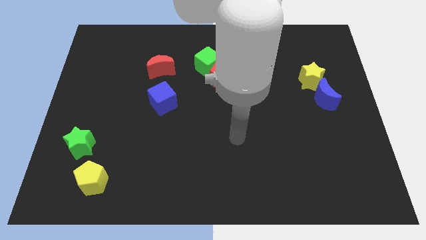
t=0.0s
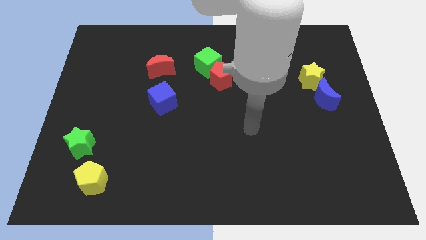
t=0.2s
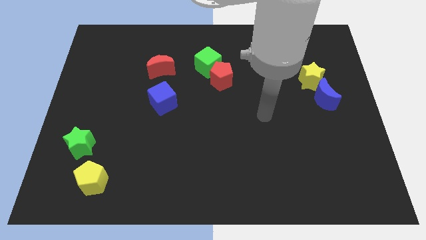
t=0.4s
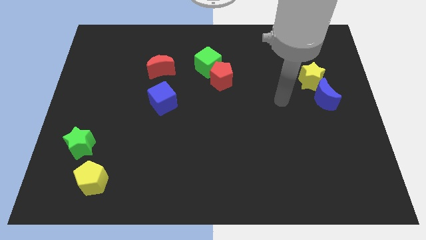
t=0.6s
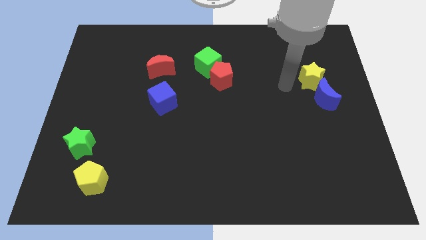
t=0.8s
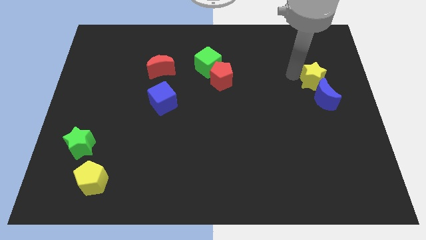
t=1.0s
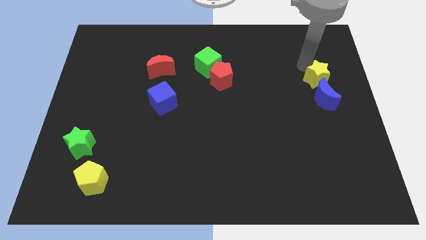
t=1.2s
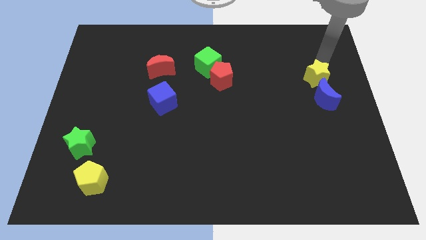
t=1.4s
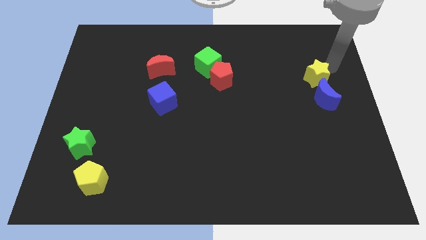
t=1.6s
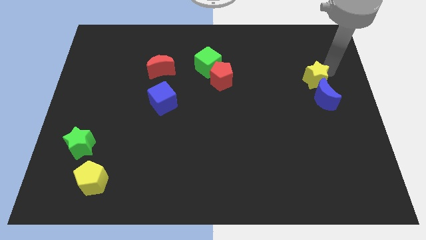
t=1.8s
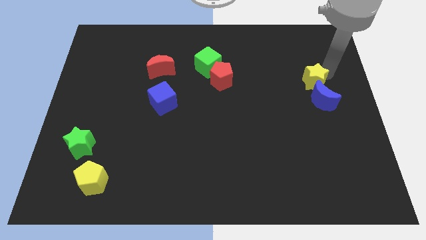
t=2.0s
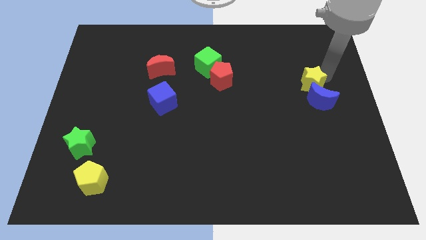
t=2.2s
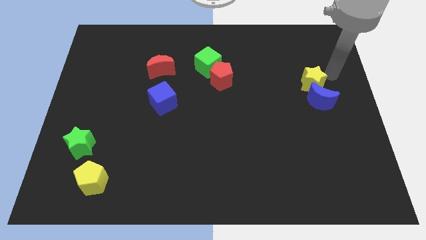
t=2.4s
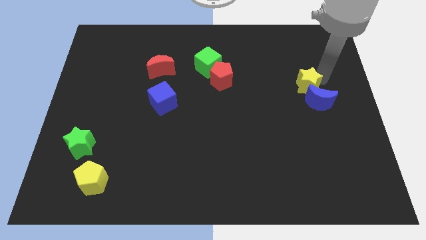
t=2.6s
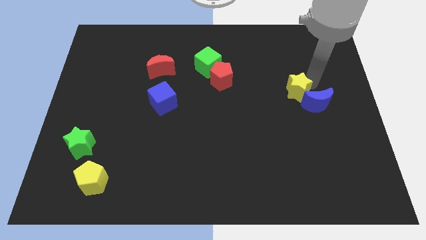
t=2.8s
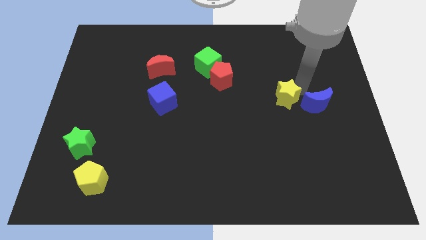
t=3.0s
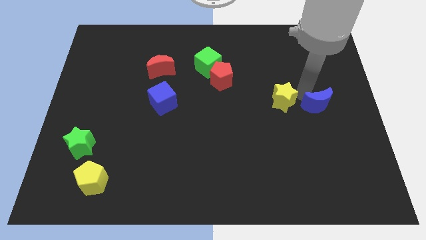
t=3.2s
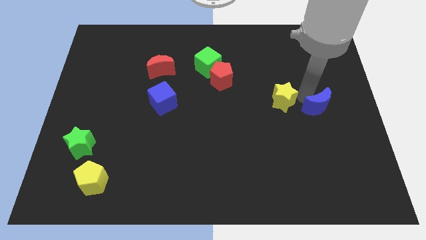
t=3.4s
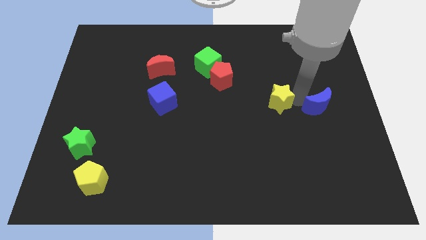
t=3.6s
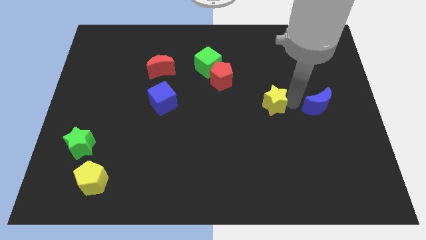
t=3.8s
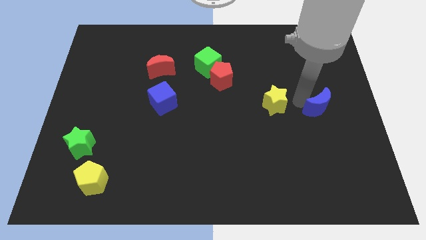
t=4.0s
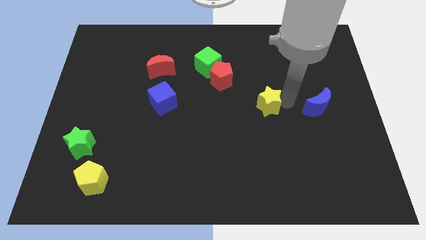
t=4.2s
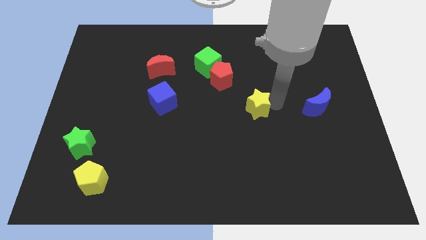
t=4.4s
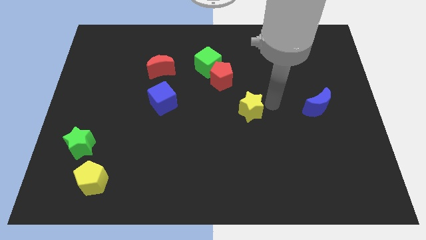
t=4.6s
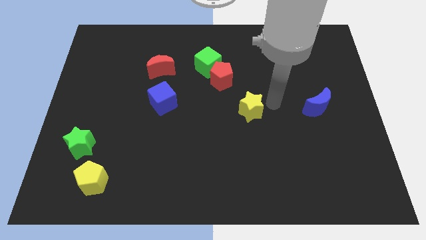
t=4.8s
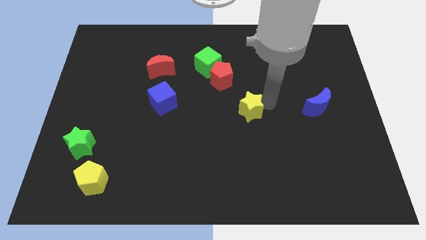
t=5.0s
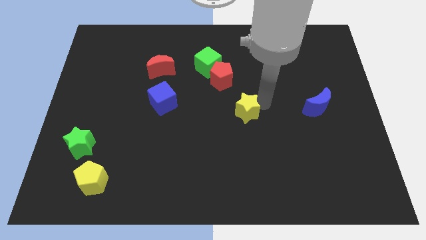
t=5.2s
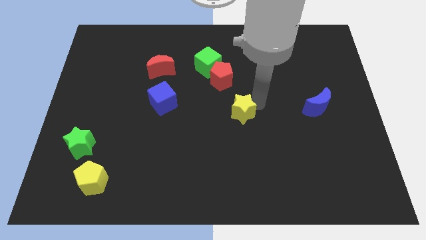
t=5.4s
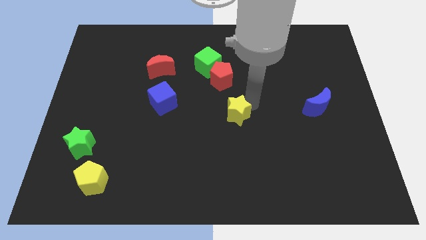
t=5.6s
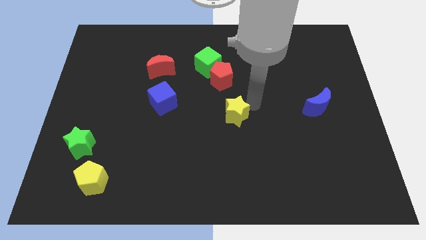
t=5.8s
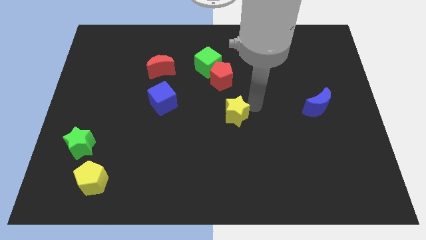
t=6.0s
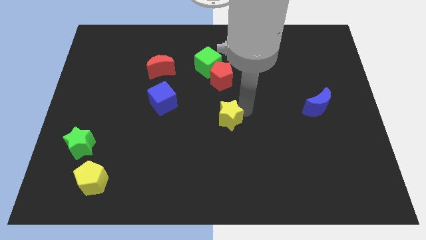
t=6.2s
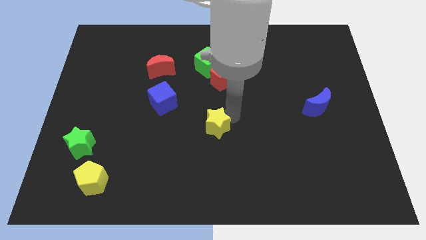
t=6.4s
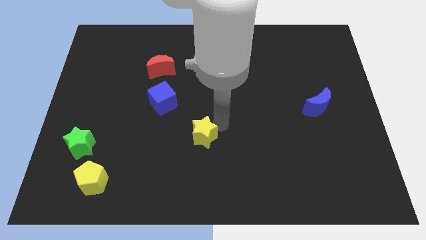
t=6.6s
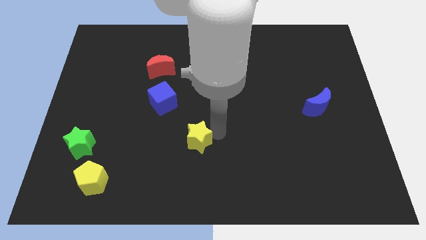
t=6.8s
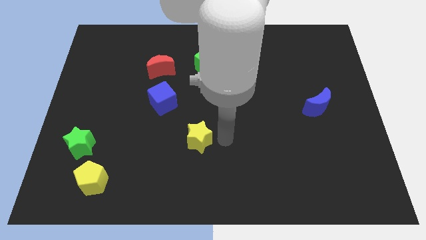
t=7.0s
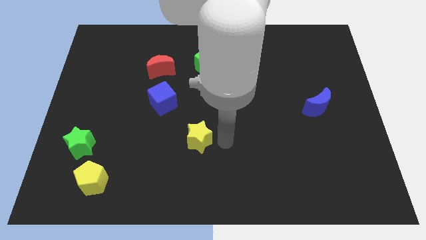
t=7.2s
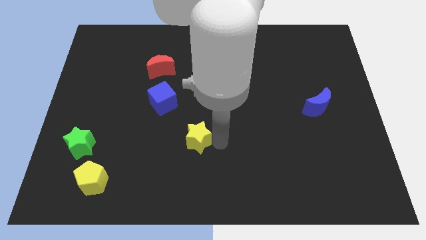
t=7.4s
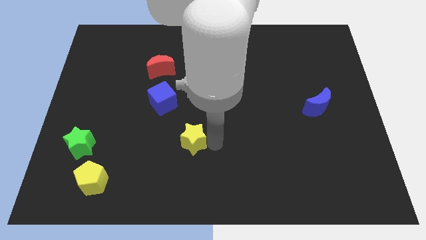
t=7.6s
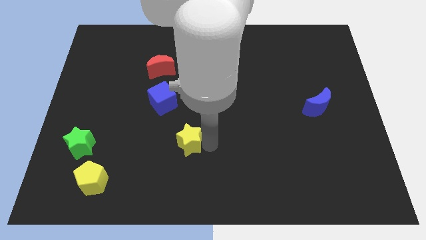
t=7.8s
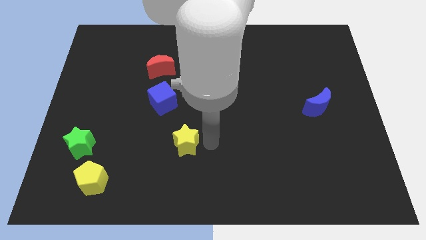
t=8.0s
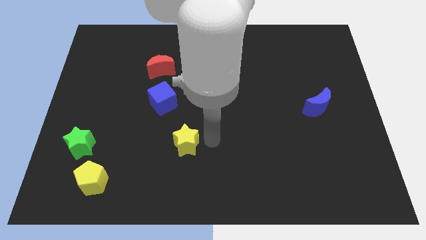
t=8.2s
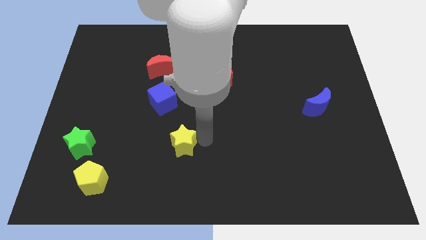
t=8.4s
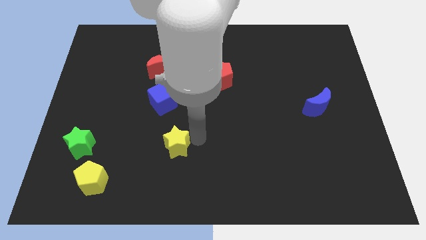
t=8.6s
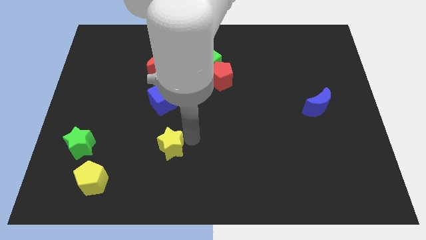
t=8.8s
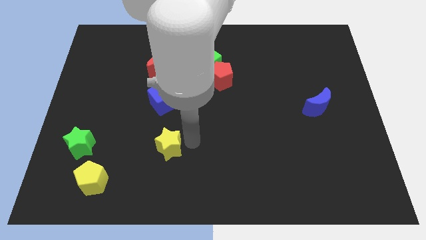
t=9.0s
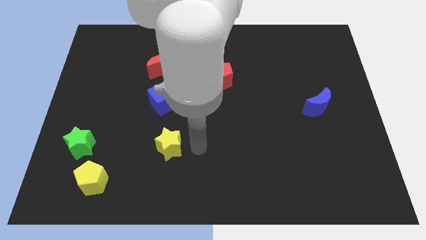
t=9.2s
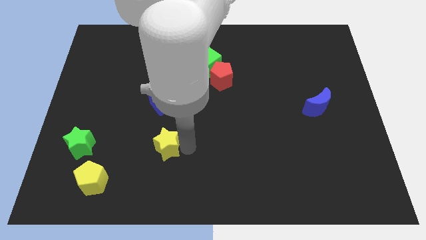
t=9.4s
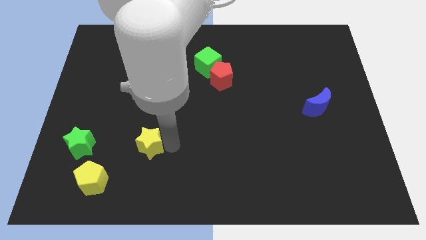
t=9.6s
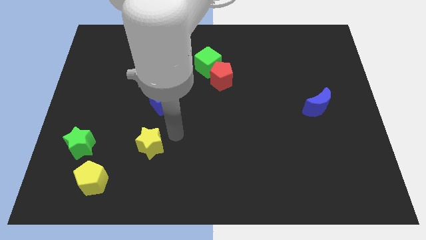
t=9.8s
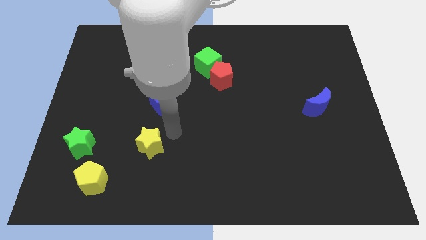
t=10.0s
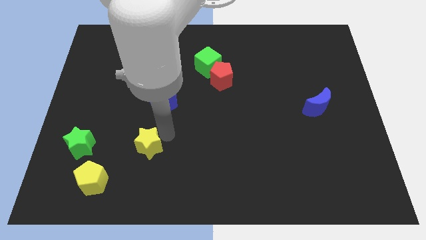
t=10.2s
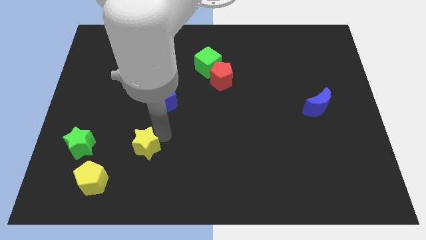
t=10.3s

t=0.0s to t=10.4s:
put the yellow star to the top right side of the yellow pentagon

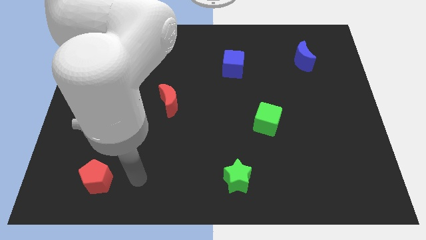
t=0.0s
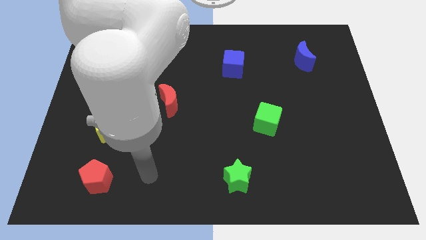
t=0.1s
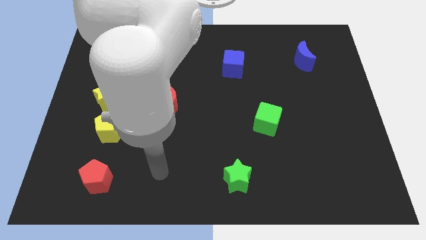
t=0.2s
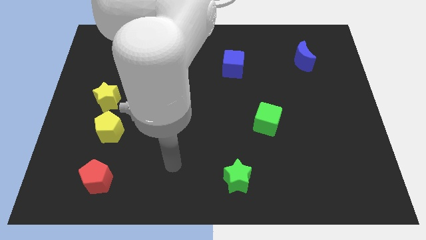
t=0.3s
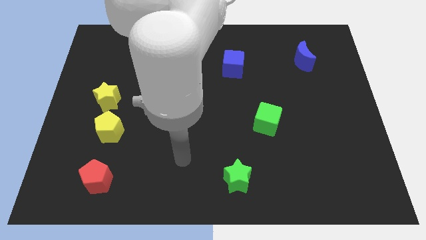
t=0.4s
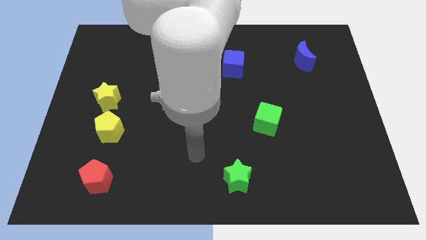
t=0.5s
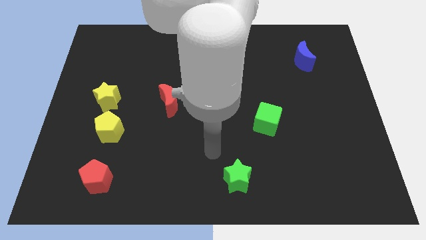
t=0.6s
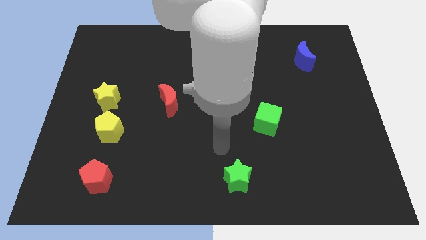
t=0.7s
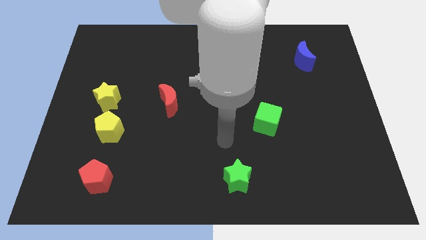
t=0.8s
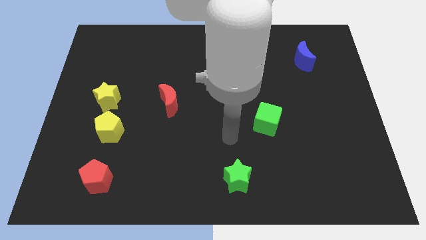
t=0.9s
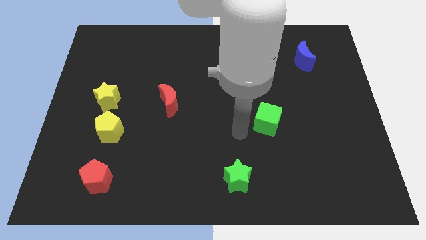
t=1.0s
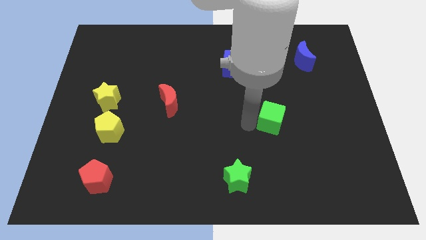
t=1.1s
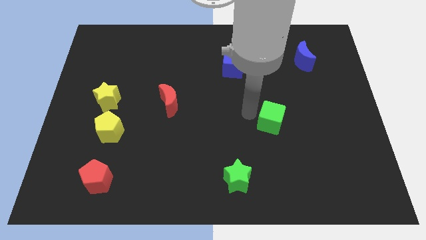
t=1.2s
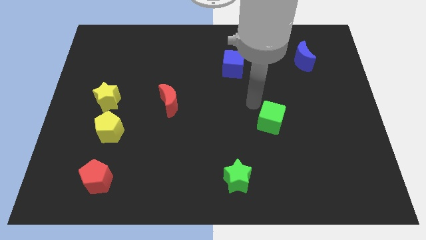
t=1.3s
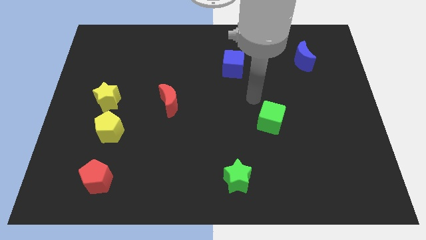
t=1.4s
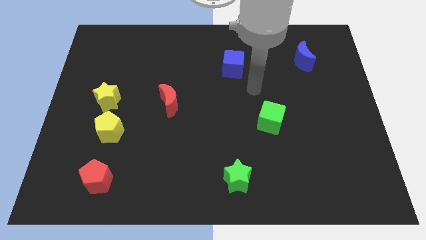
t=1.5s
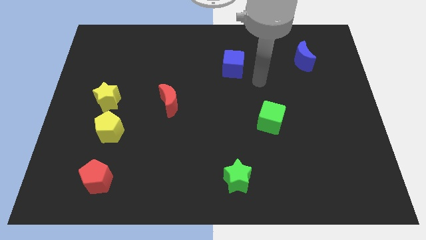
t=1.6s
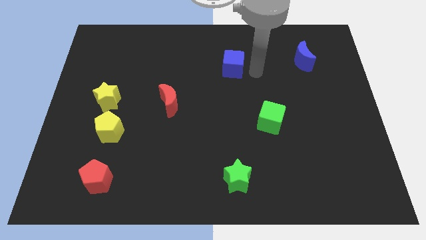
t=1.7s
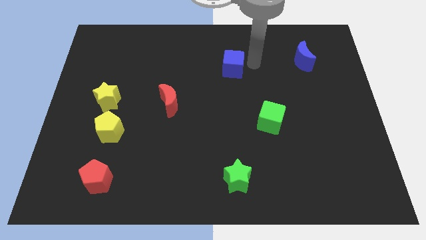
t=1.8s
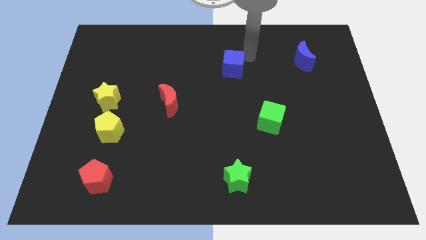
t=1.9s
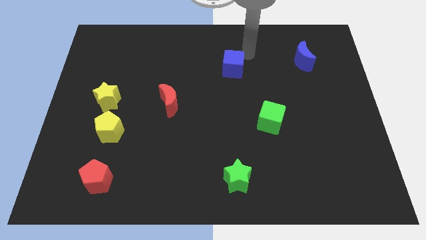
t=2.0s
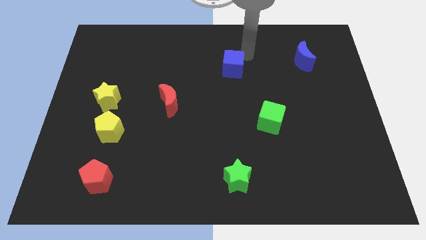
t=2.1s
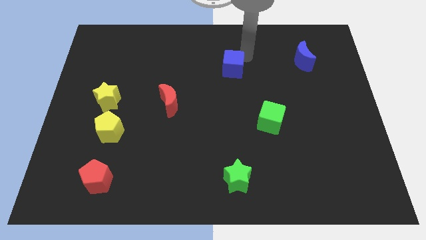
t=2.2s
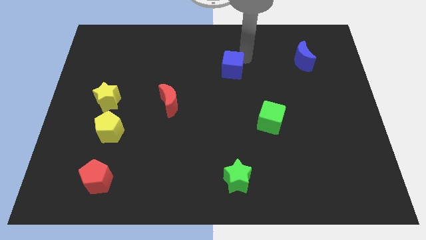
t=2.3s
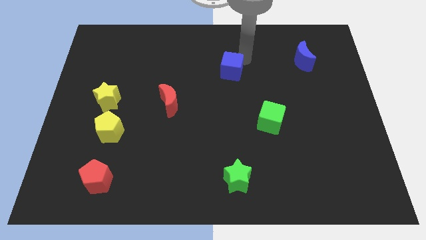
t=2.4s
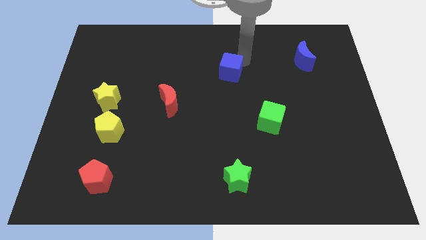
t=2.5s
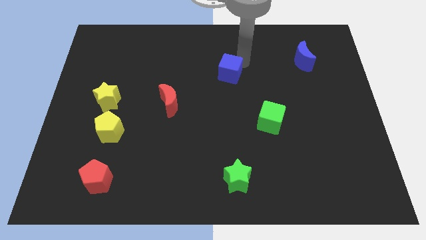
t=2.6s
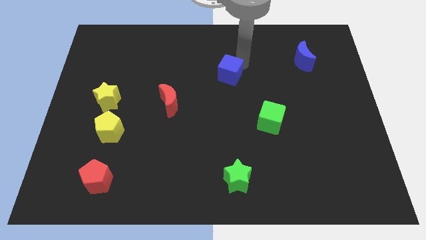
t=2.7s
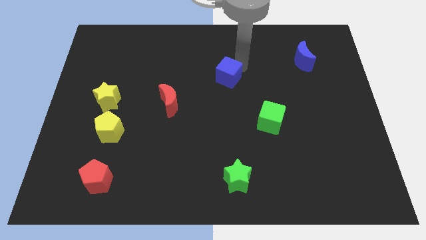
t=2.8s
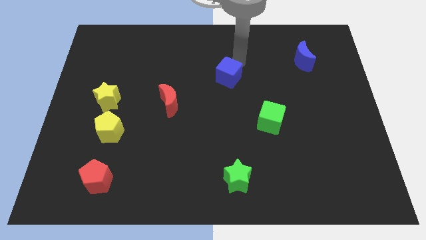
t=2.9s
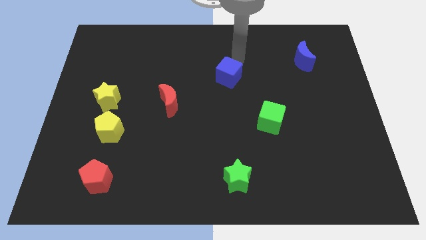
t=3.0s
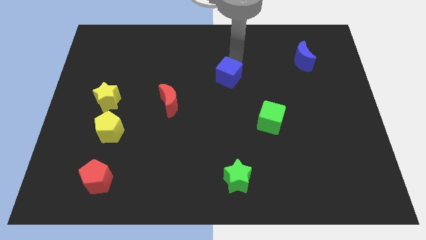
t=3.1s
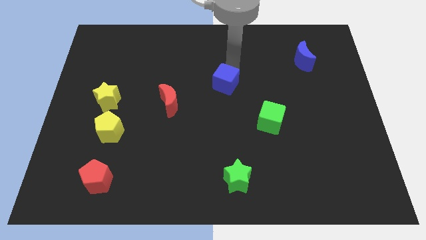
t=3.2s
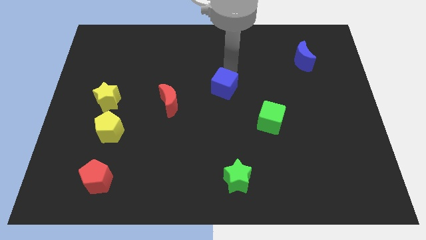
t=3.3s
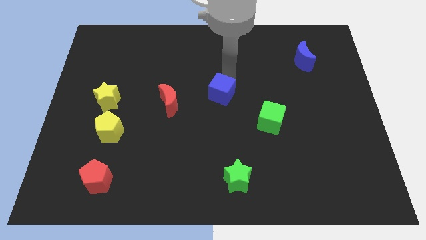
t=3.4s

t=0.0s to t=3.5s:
push the blue cube to the right side of the red moon
